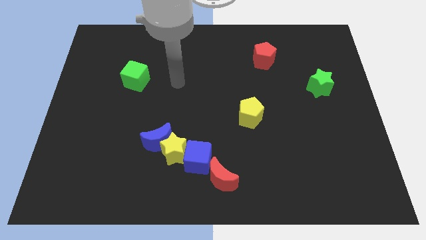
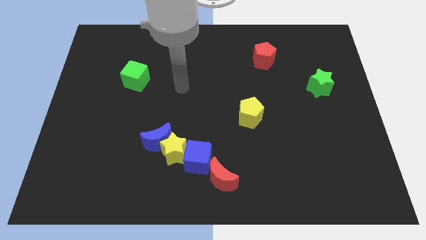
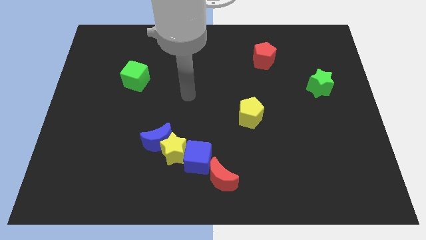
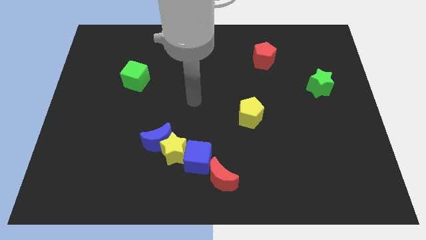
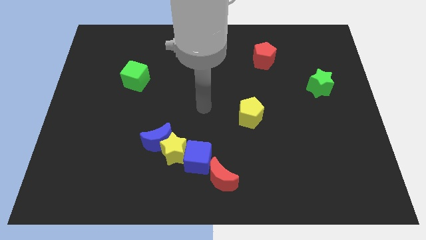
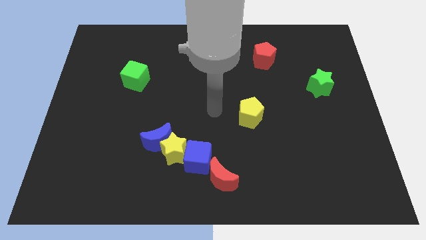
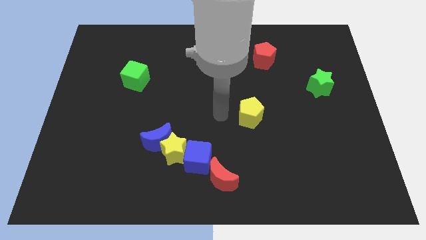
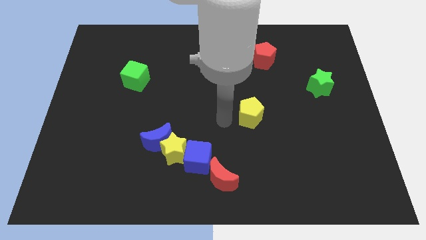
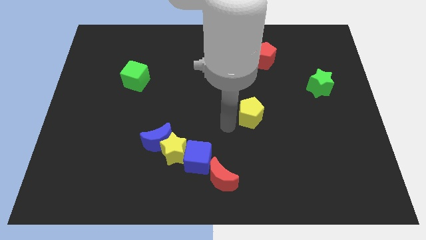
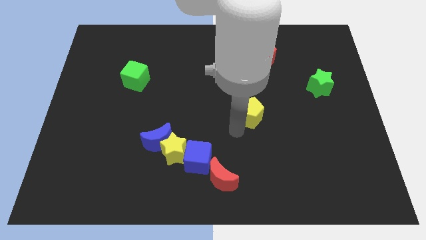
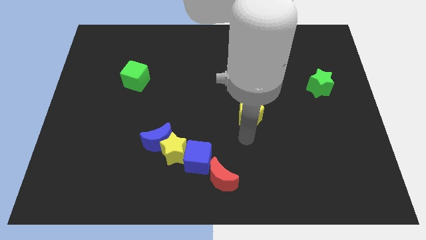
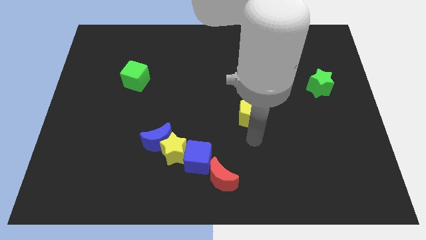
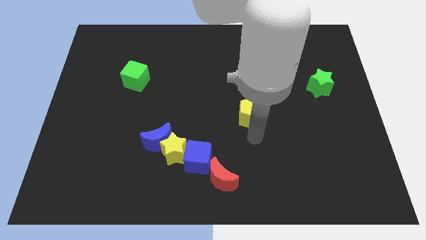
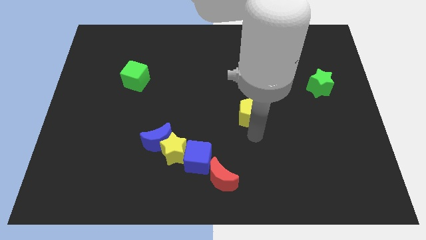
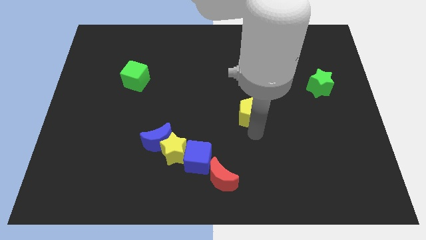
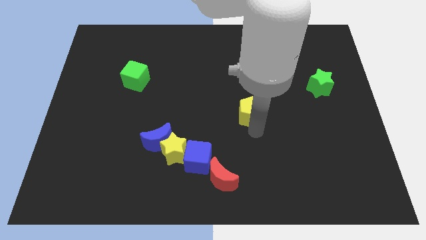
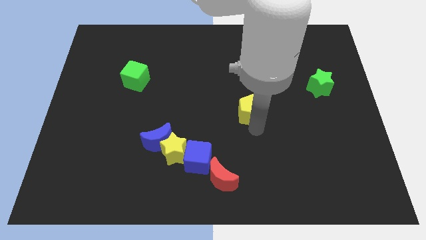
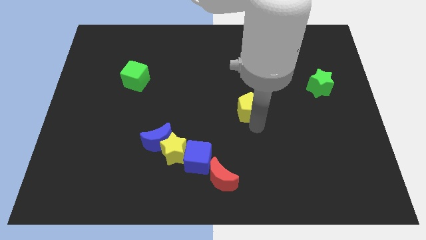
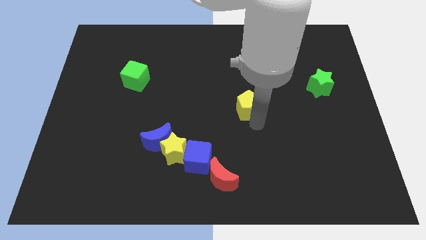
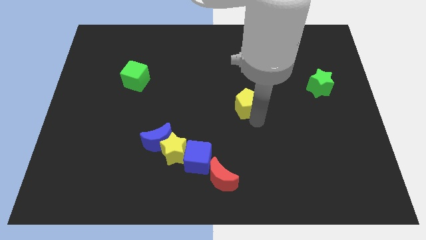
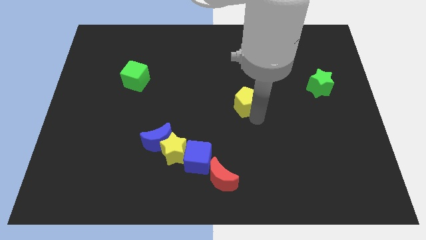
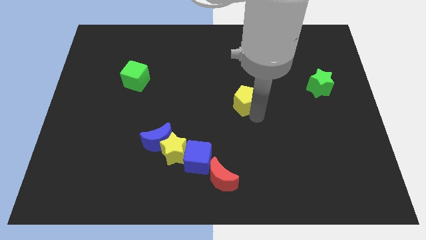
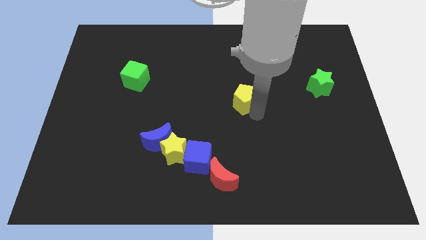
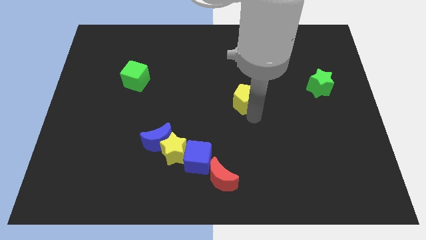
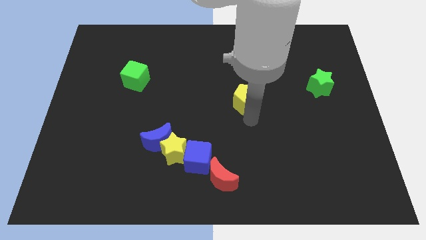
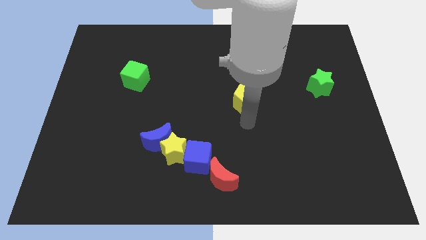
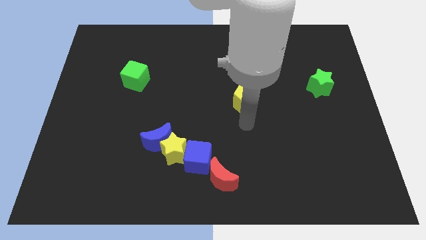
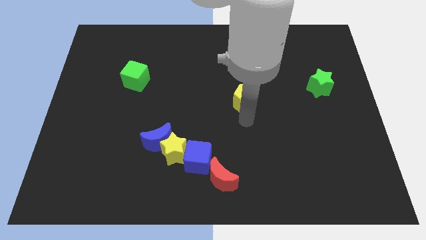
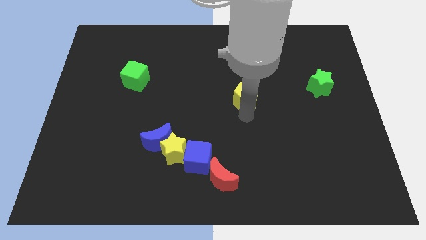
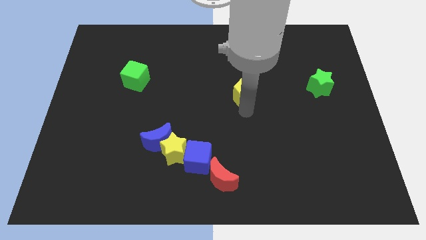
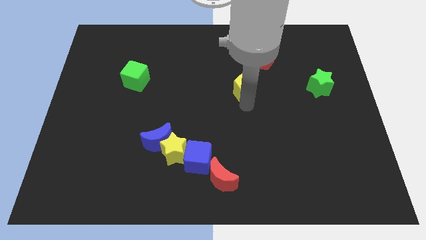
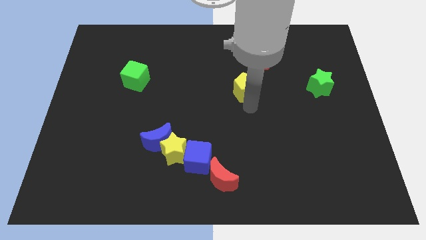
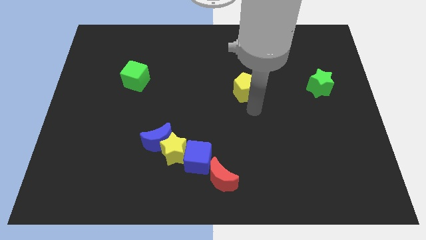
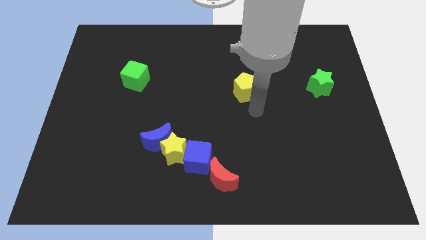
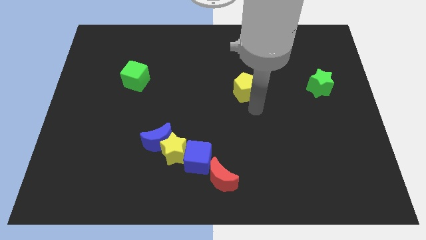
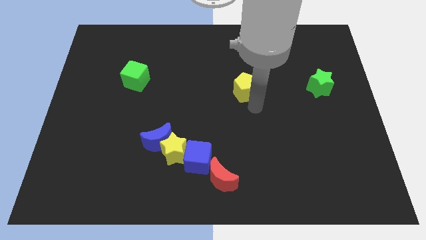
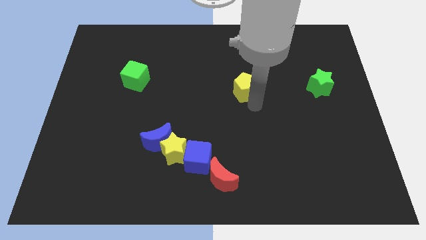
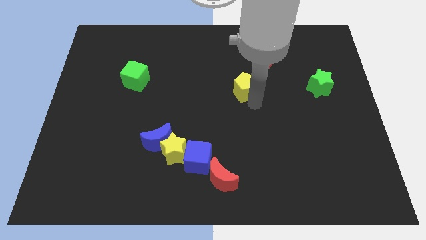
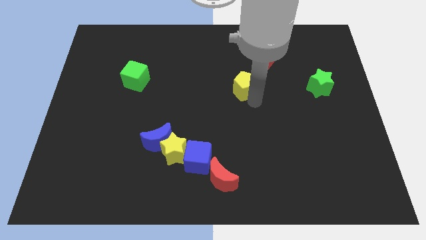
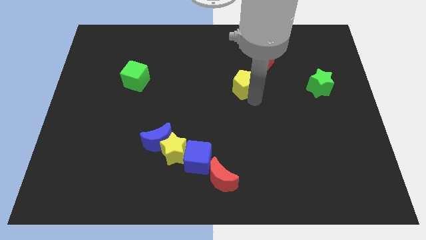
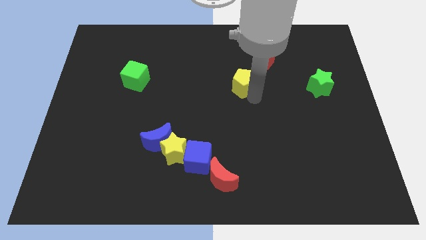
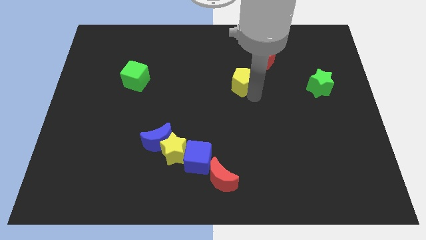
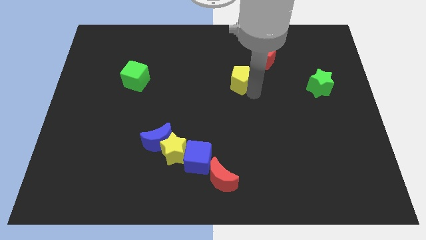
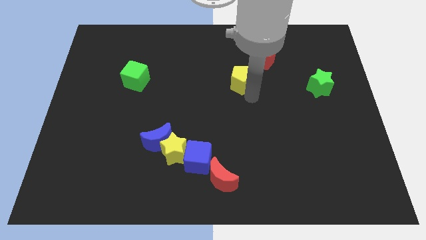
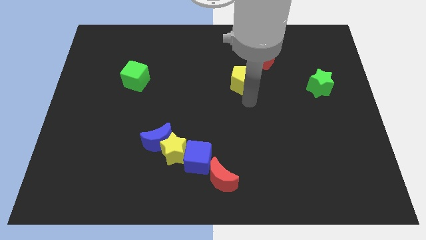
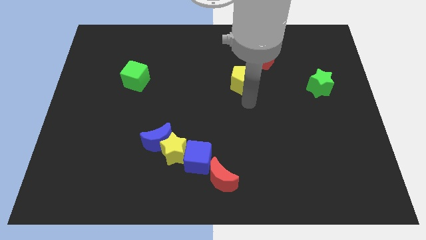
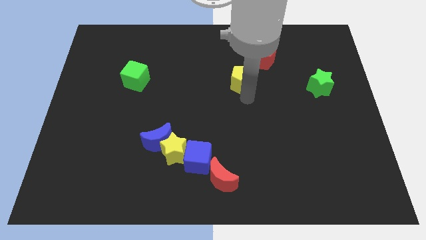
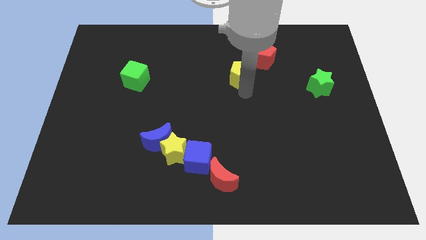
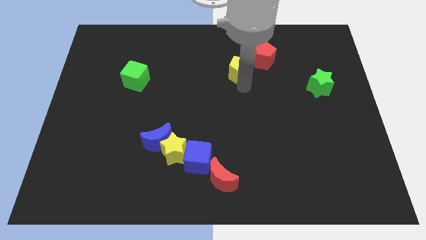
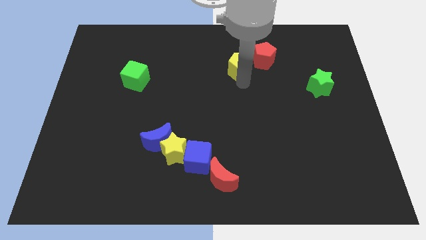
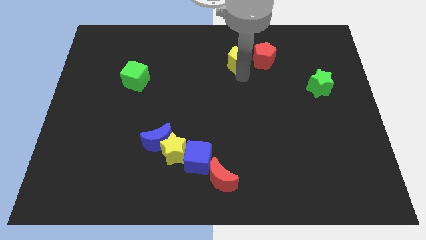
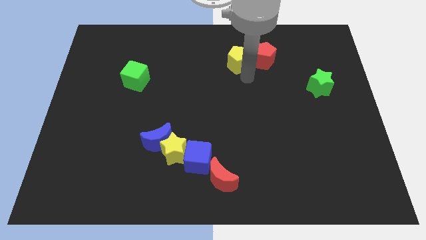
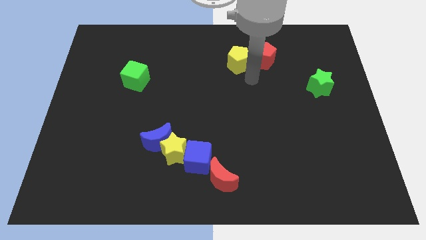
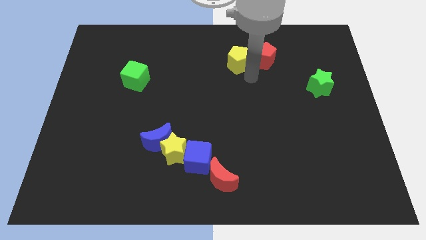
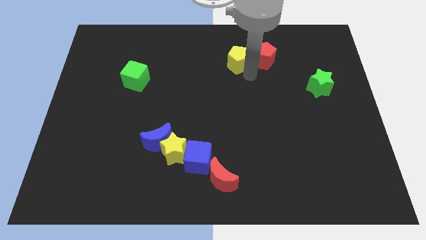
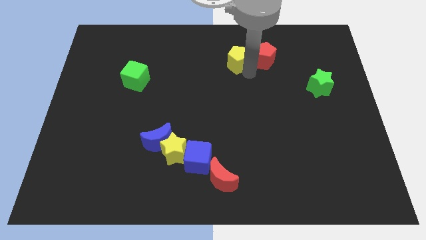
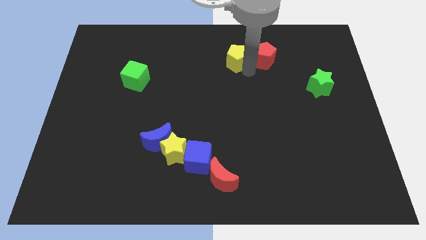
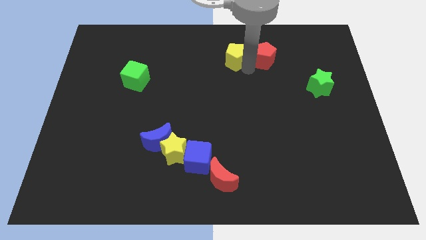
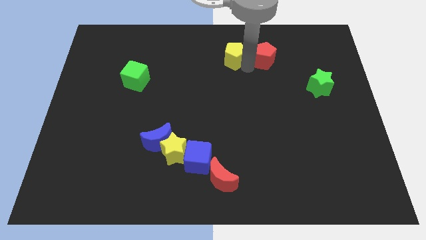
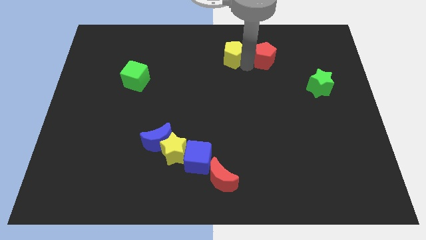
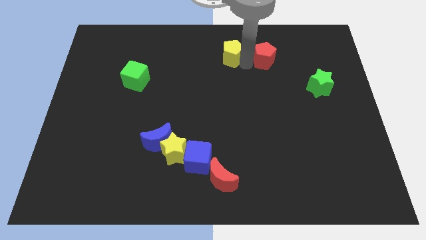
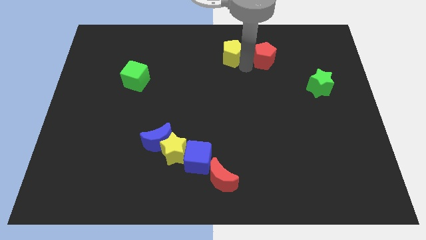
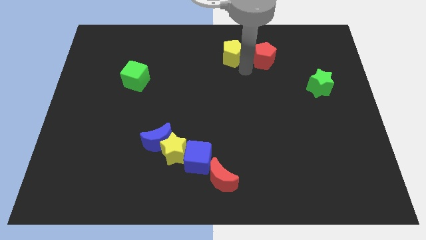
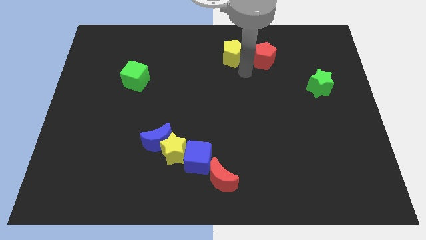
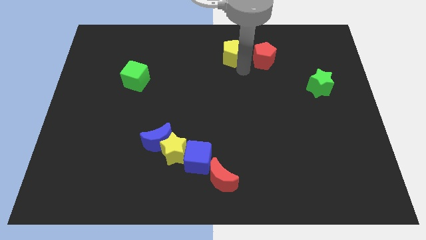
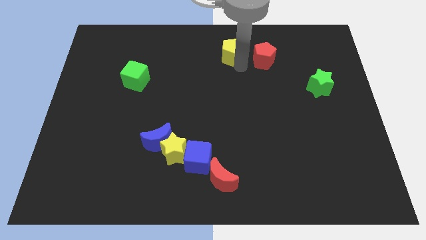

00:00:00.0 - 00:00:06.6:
slide the yellow pentagon to the top
